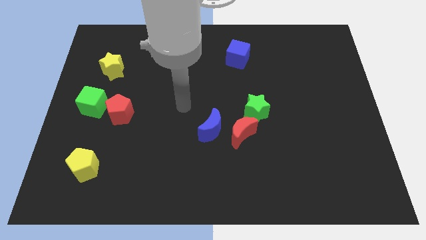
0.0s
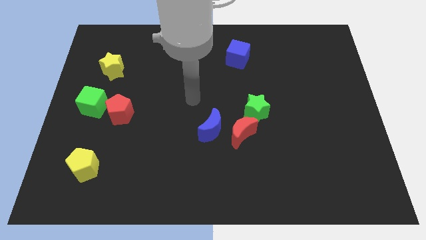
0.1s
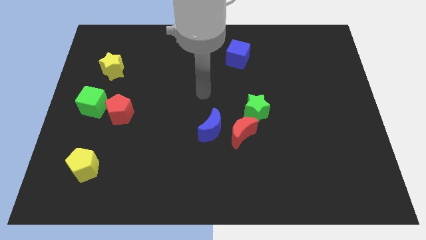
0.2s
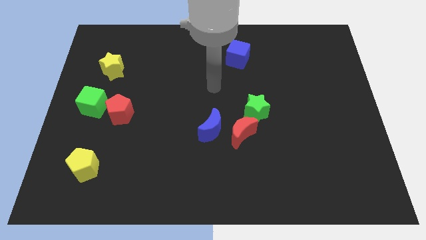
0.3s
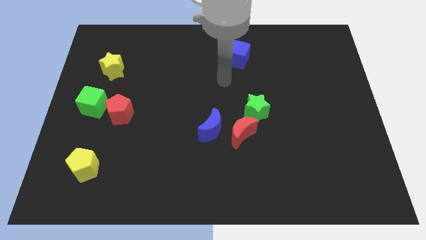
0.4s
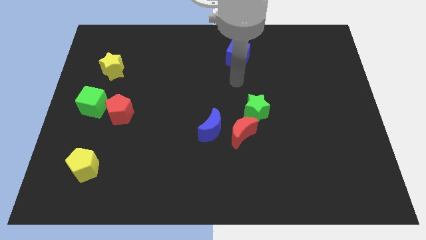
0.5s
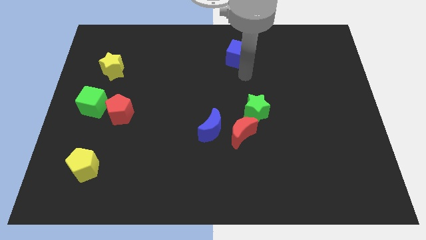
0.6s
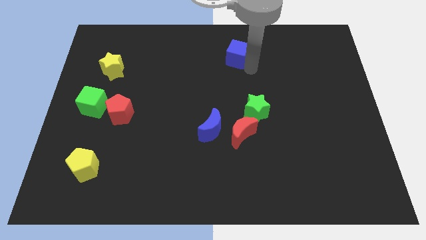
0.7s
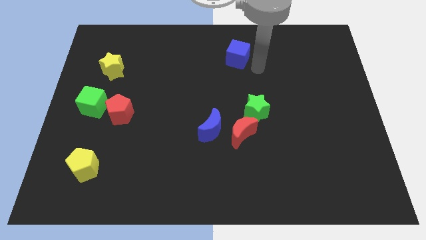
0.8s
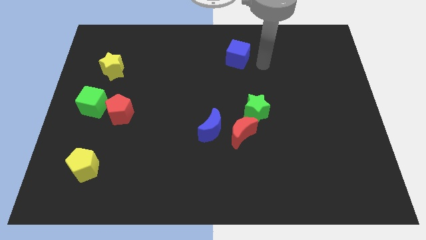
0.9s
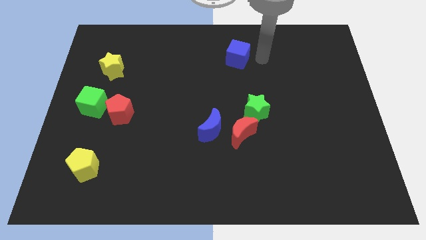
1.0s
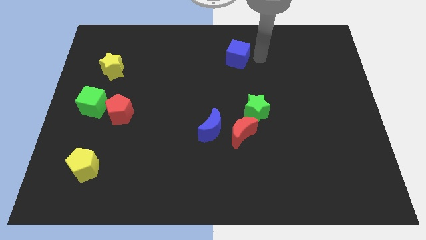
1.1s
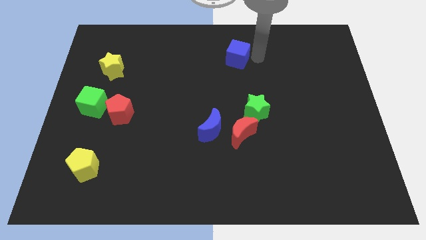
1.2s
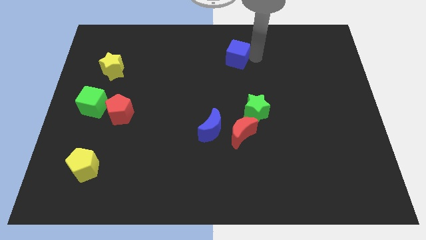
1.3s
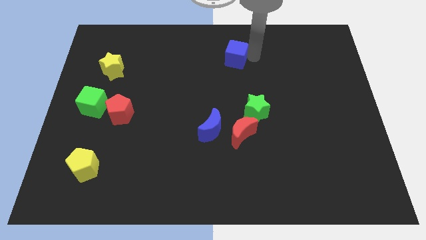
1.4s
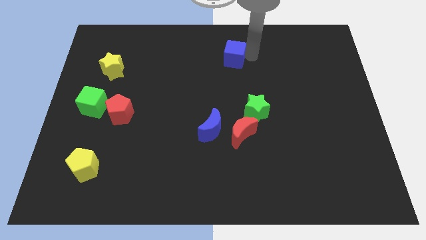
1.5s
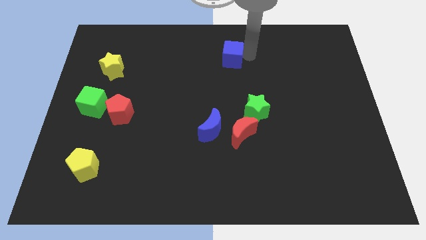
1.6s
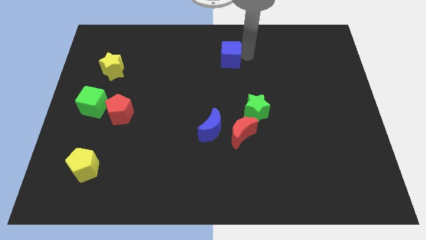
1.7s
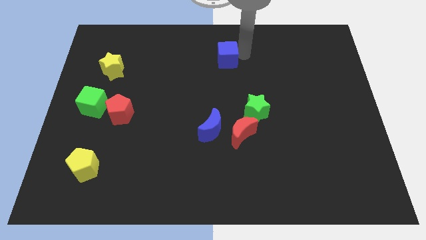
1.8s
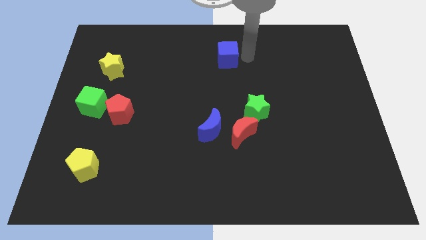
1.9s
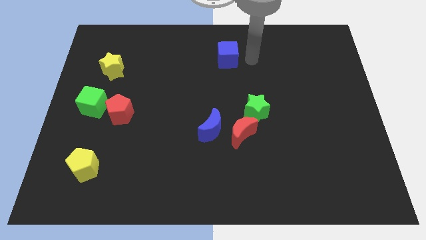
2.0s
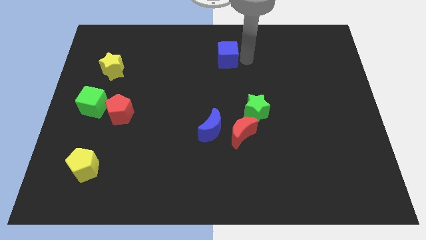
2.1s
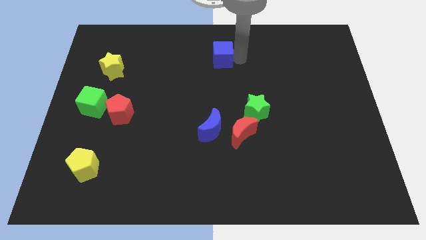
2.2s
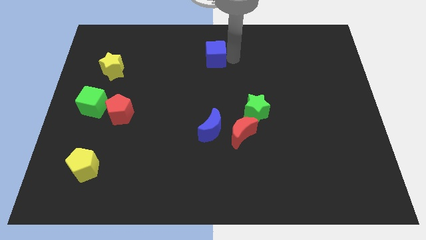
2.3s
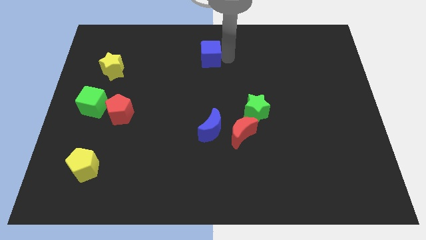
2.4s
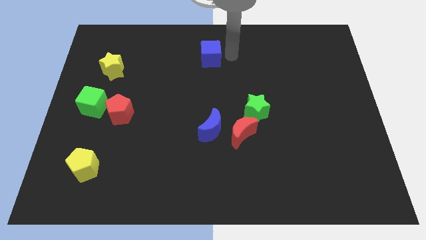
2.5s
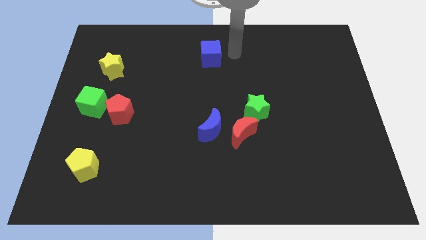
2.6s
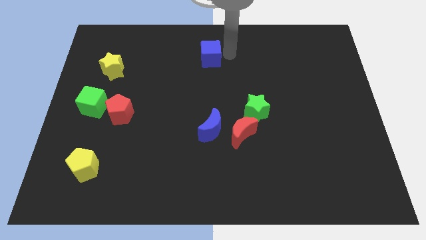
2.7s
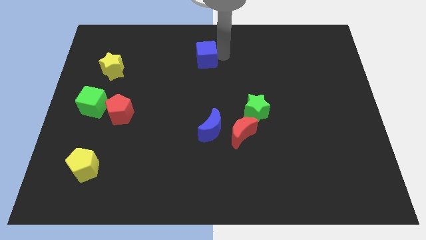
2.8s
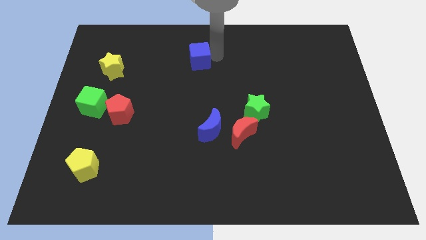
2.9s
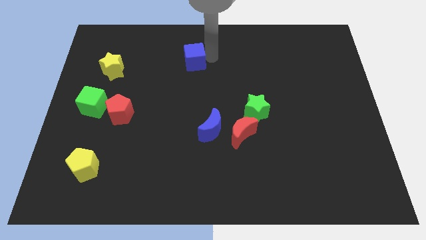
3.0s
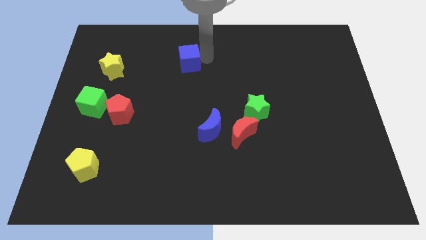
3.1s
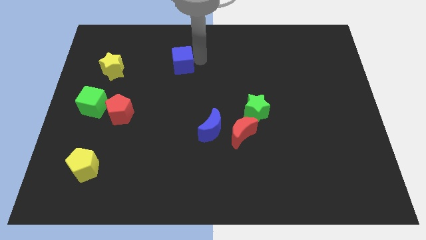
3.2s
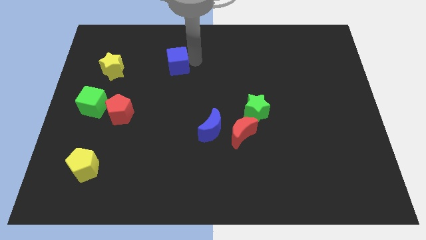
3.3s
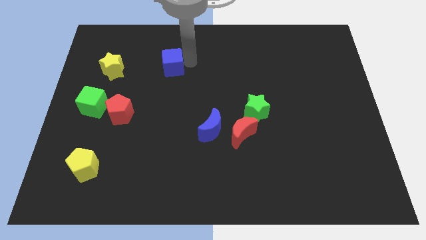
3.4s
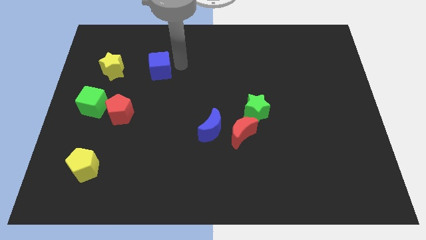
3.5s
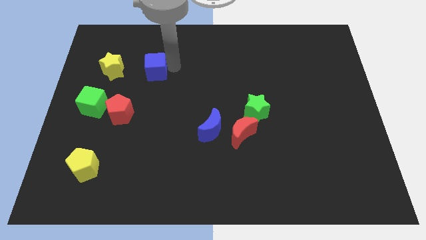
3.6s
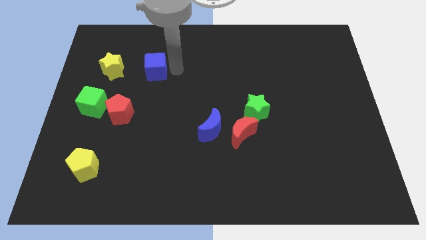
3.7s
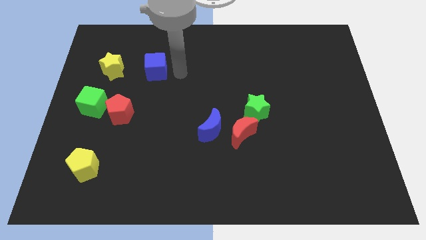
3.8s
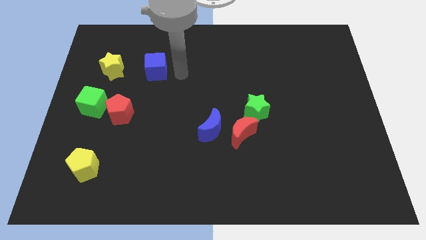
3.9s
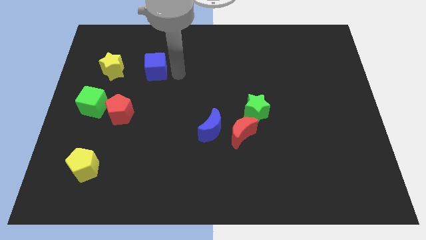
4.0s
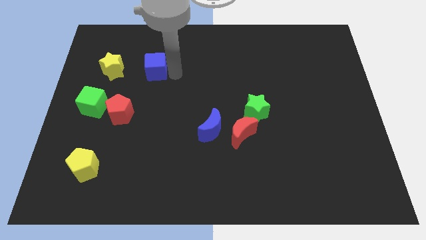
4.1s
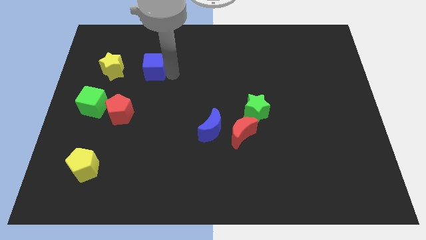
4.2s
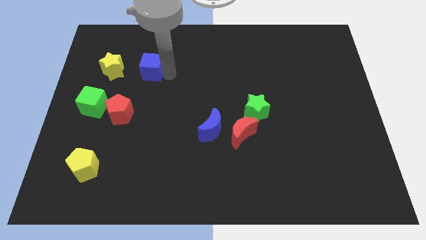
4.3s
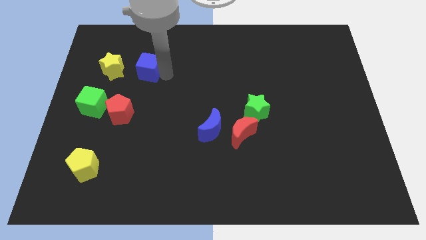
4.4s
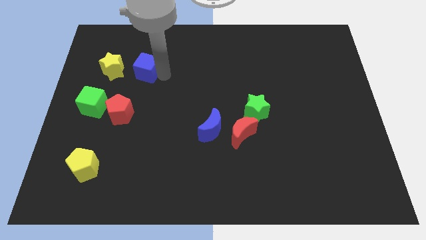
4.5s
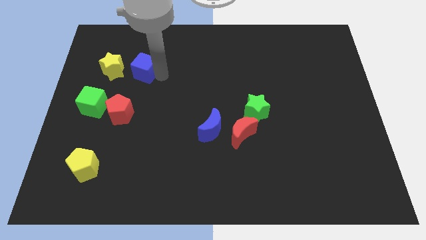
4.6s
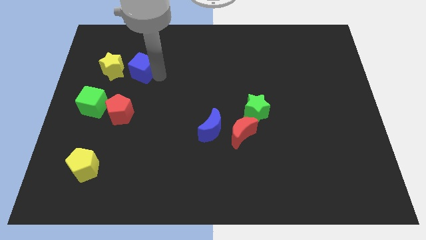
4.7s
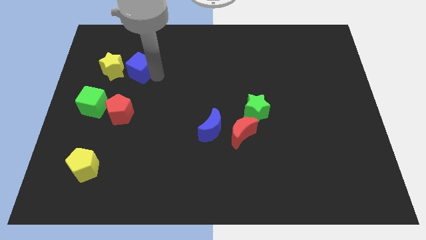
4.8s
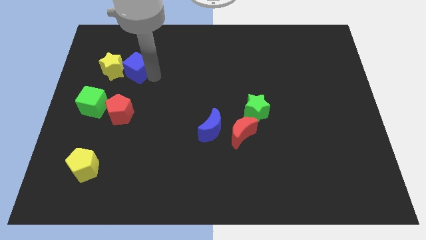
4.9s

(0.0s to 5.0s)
push the blue cube next to the yellow star

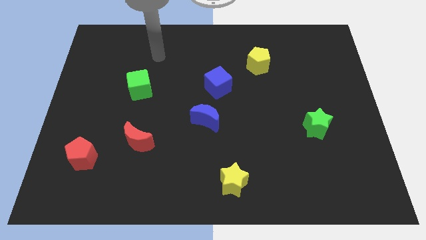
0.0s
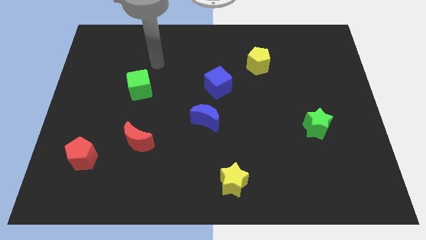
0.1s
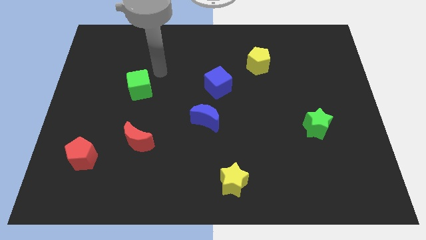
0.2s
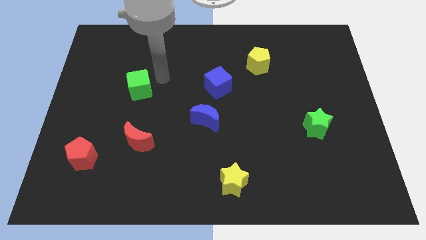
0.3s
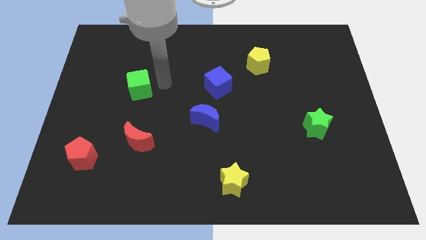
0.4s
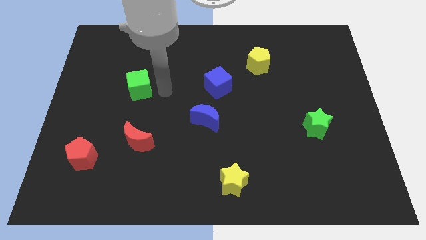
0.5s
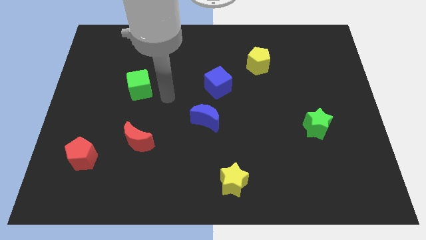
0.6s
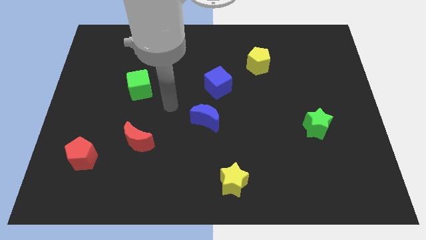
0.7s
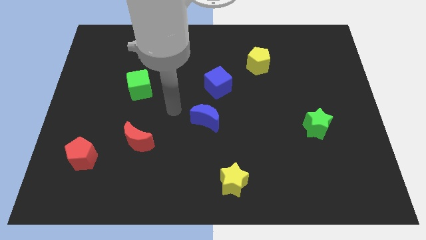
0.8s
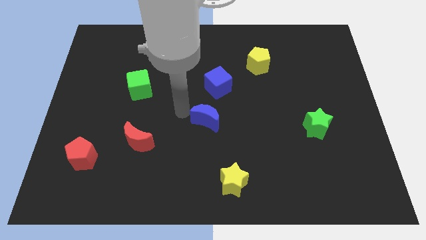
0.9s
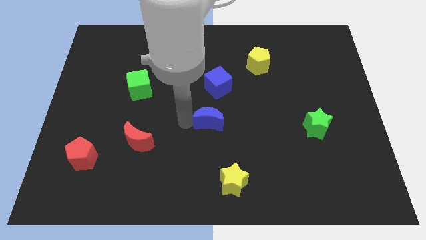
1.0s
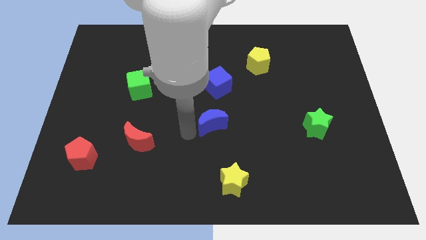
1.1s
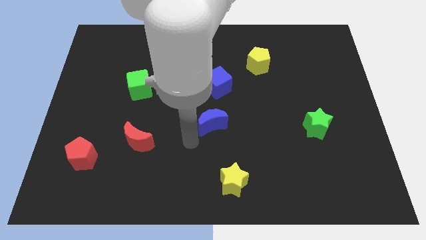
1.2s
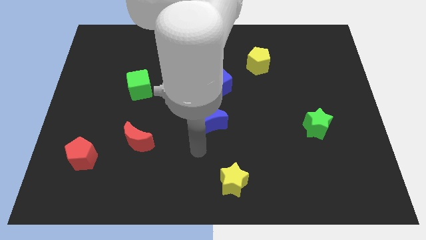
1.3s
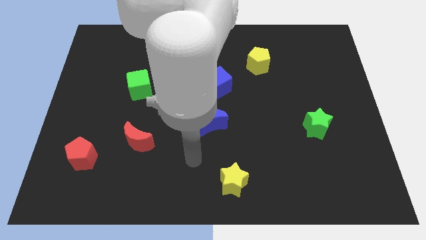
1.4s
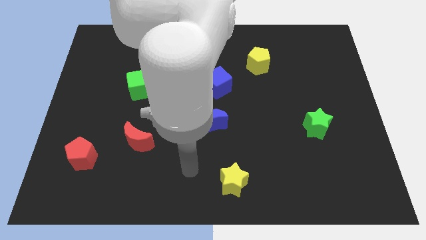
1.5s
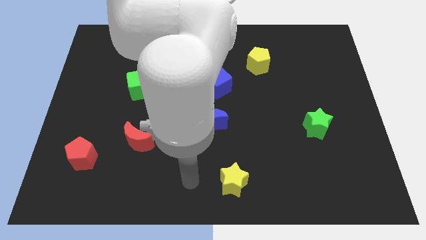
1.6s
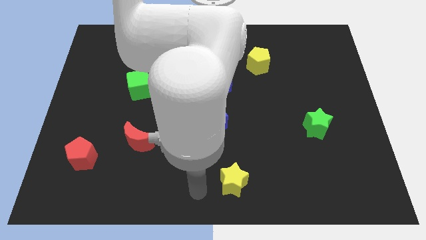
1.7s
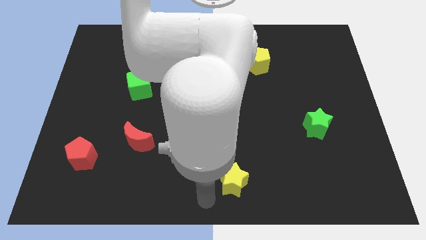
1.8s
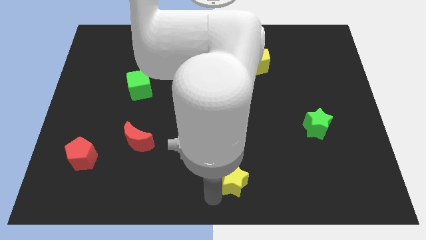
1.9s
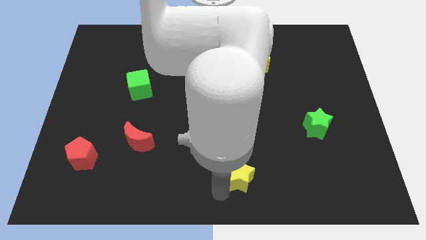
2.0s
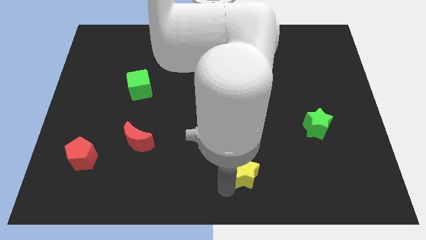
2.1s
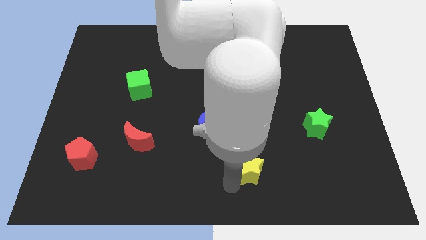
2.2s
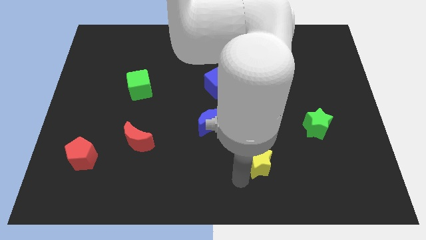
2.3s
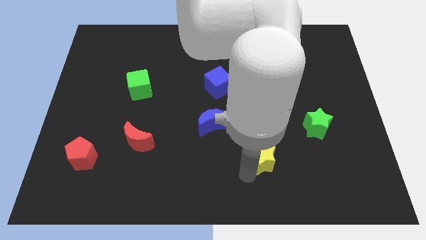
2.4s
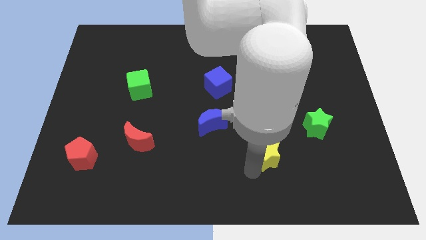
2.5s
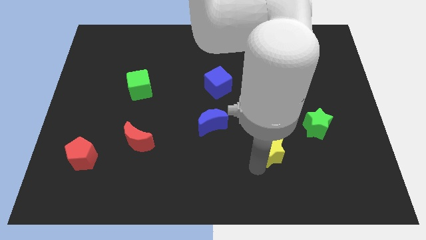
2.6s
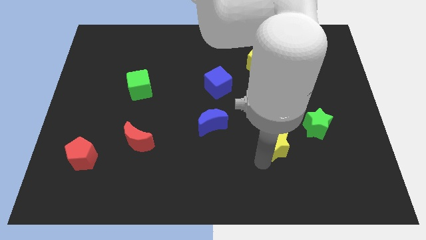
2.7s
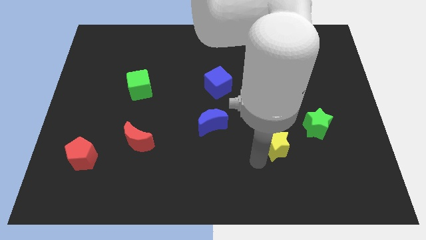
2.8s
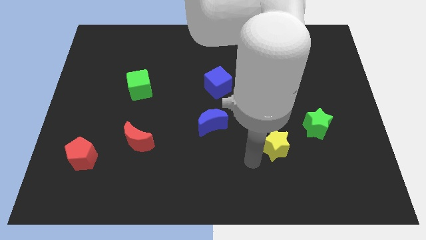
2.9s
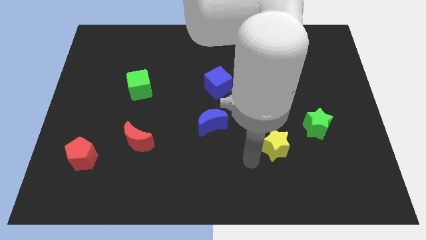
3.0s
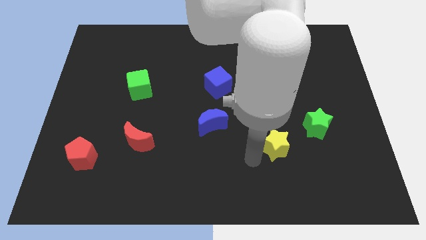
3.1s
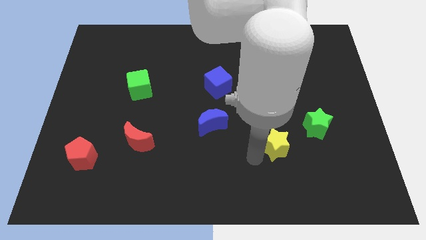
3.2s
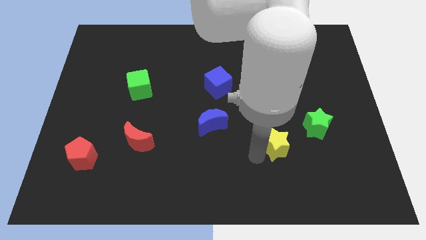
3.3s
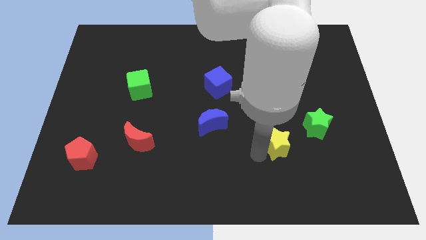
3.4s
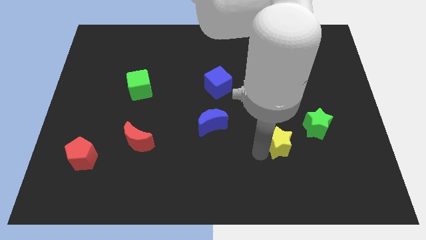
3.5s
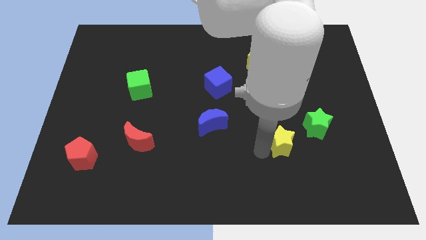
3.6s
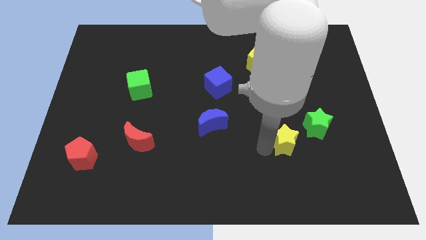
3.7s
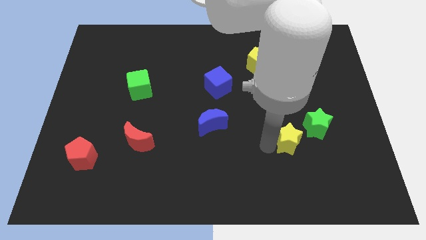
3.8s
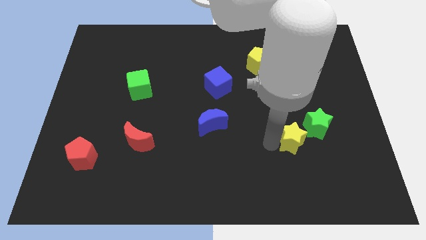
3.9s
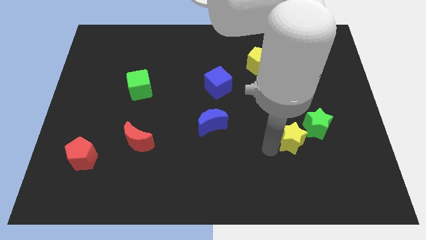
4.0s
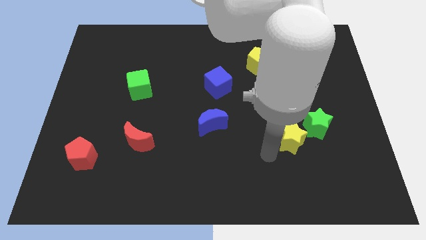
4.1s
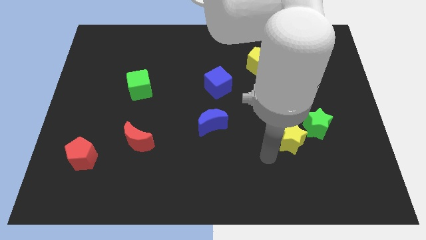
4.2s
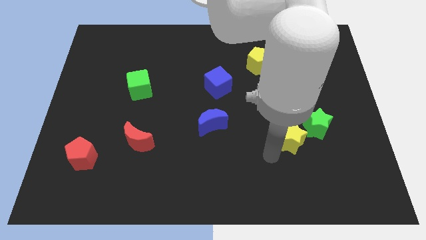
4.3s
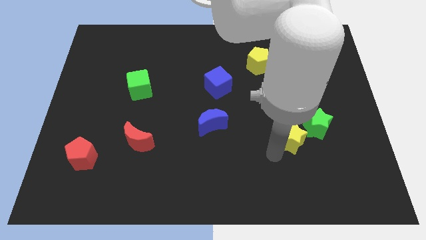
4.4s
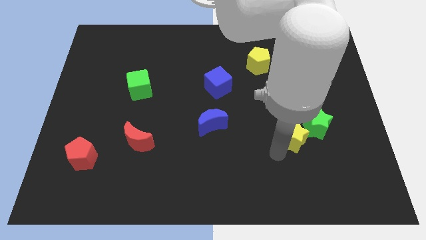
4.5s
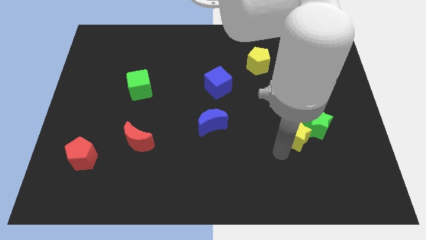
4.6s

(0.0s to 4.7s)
slide the yellow star to the green star
